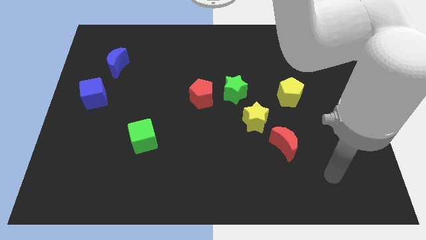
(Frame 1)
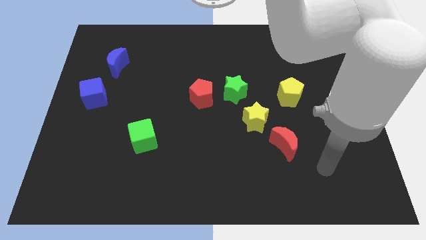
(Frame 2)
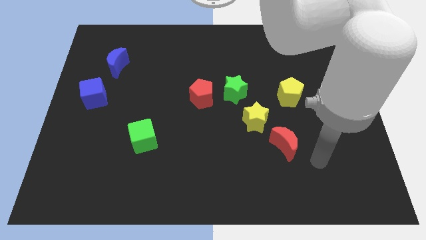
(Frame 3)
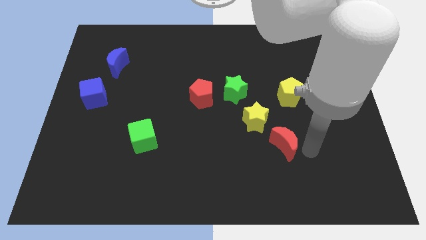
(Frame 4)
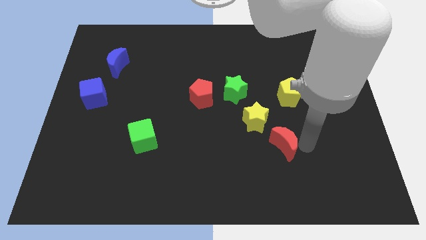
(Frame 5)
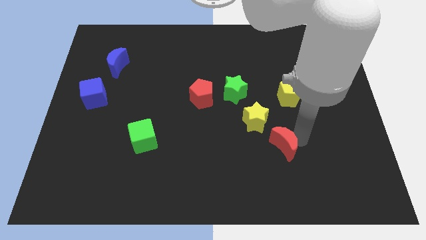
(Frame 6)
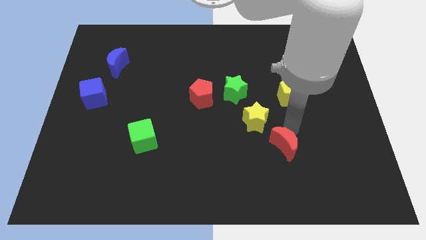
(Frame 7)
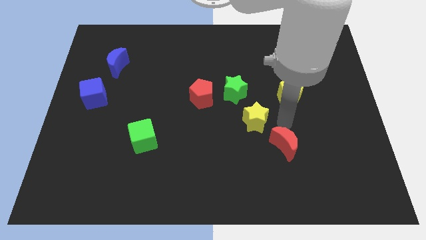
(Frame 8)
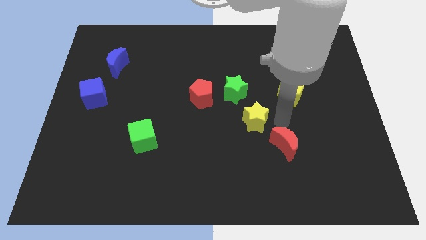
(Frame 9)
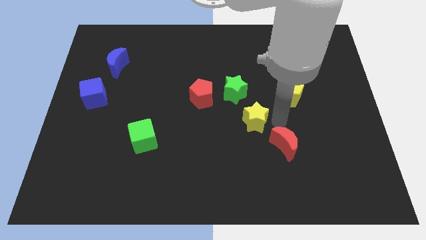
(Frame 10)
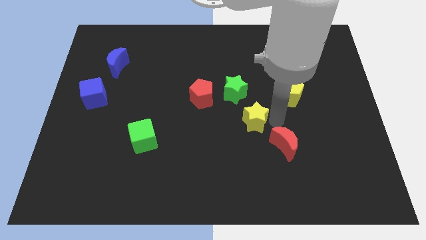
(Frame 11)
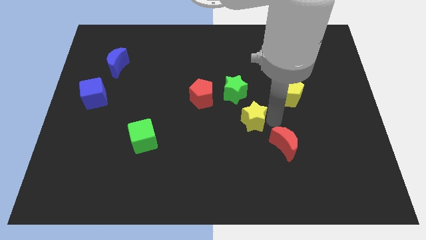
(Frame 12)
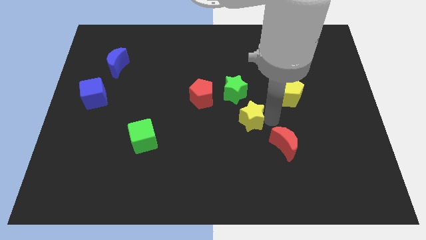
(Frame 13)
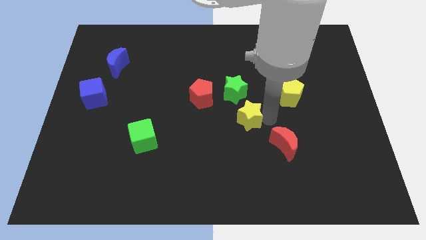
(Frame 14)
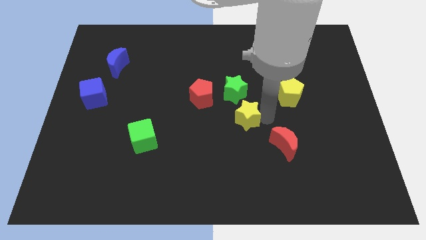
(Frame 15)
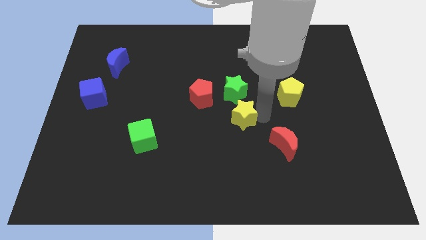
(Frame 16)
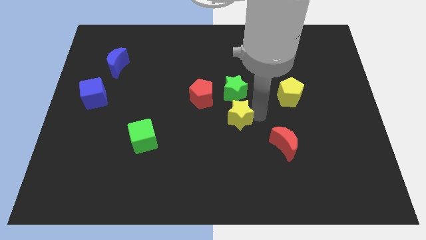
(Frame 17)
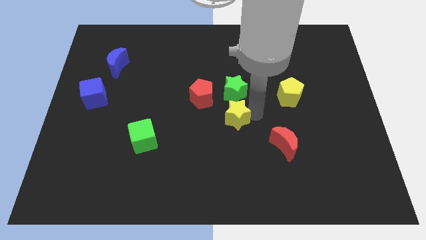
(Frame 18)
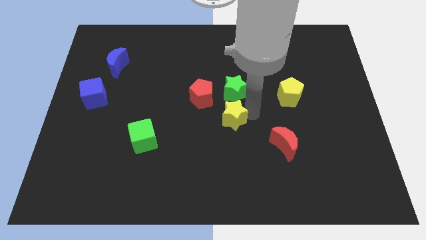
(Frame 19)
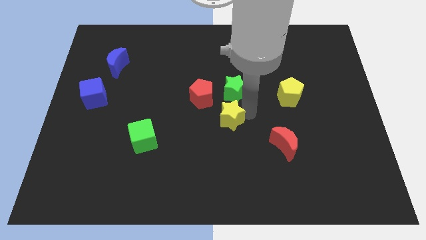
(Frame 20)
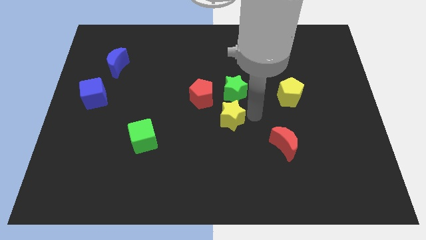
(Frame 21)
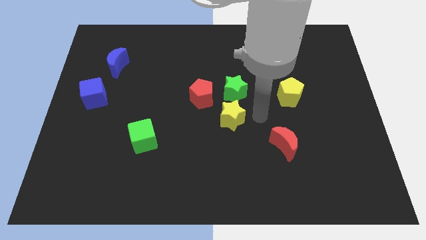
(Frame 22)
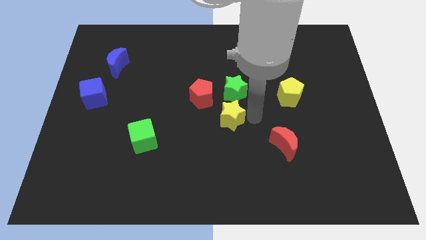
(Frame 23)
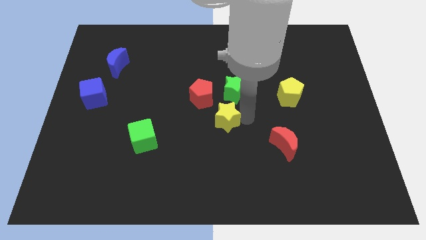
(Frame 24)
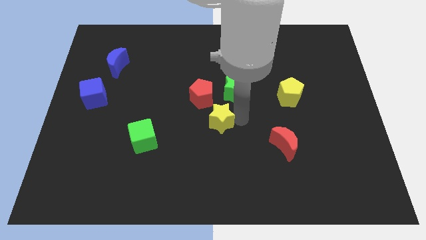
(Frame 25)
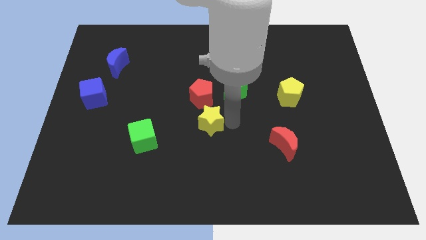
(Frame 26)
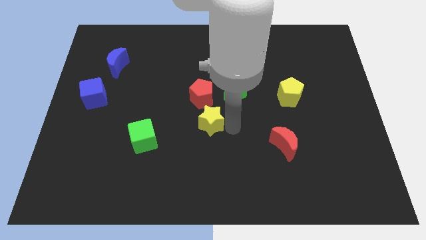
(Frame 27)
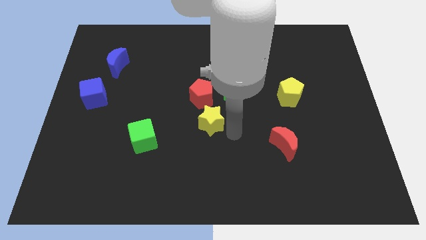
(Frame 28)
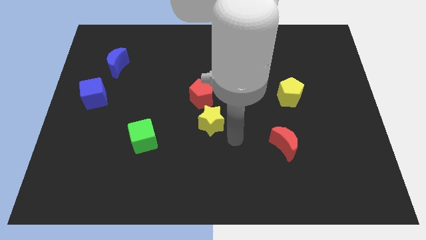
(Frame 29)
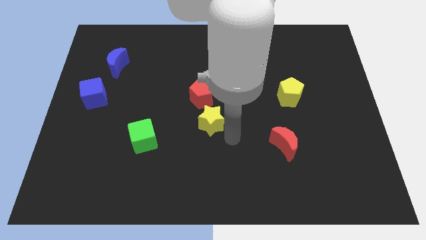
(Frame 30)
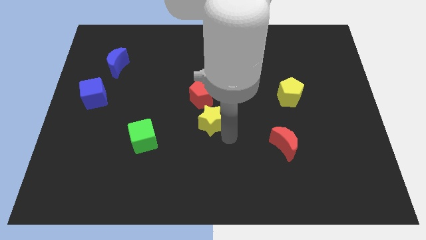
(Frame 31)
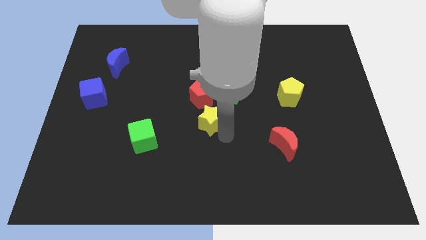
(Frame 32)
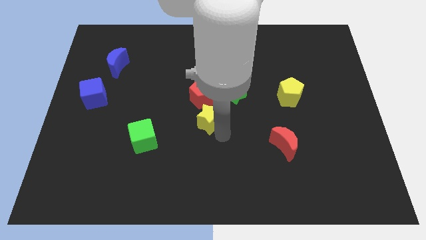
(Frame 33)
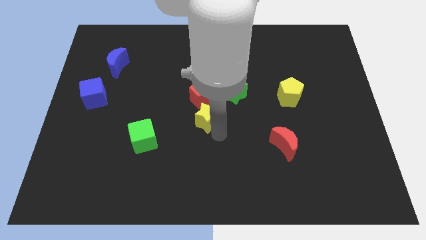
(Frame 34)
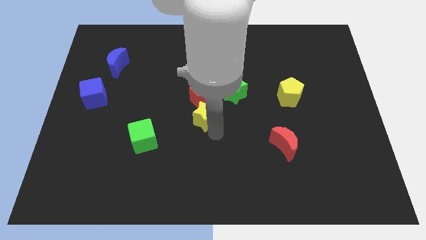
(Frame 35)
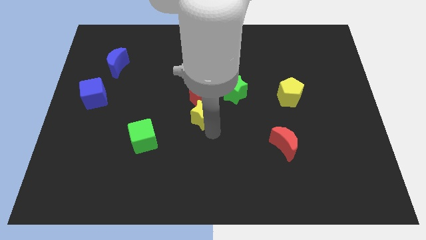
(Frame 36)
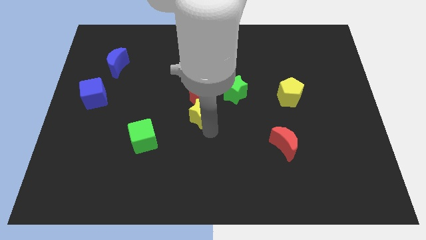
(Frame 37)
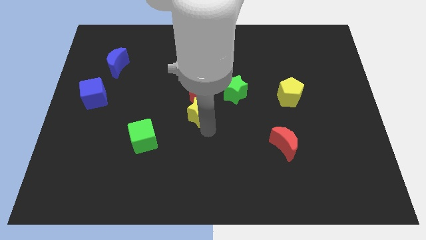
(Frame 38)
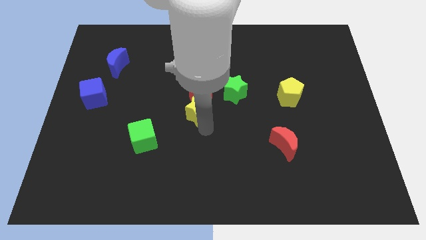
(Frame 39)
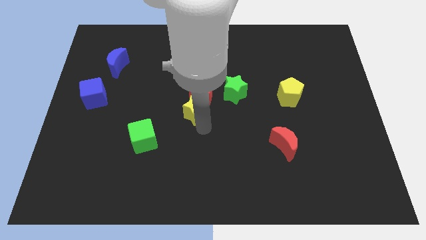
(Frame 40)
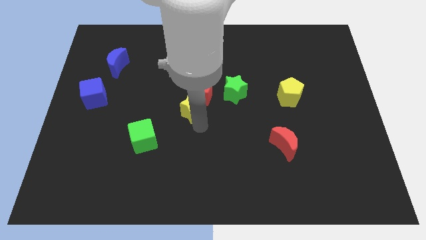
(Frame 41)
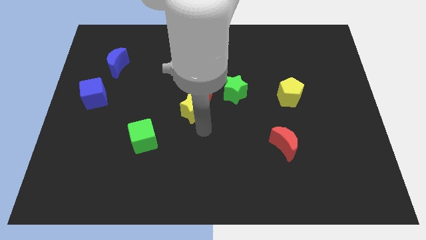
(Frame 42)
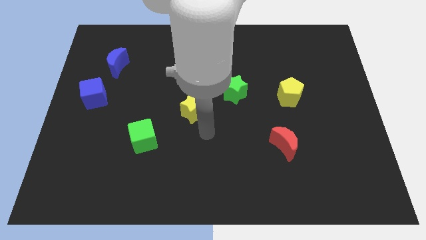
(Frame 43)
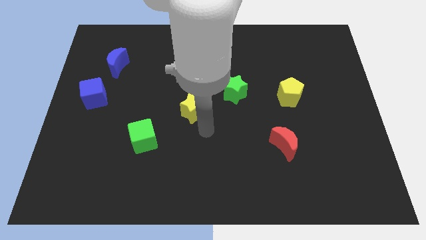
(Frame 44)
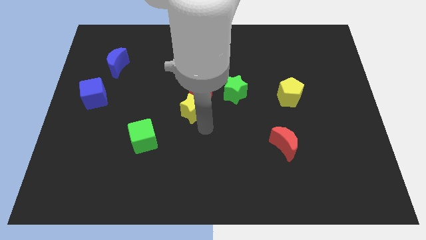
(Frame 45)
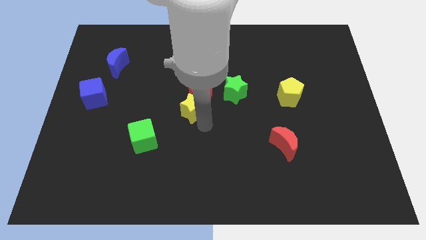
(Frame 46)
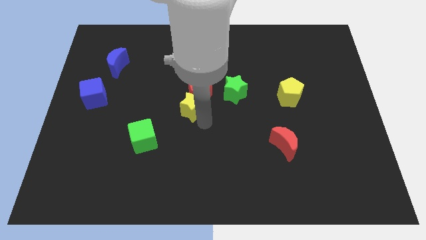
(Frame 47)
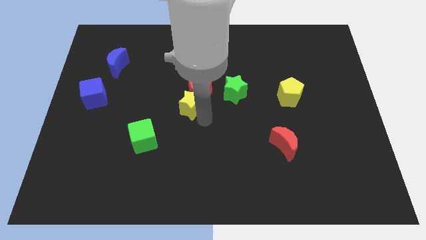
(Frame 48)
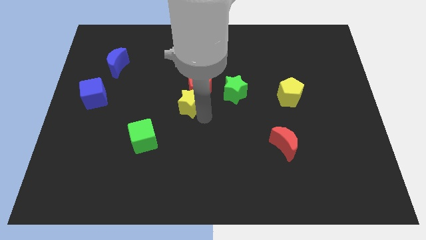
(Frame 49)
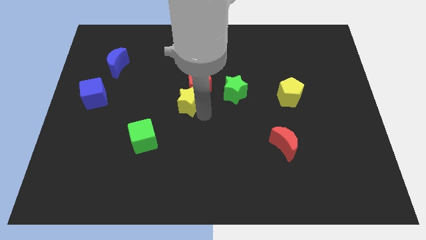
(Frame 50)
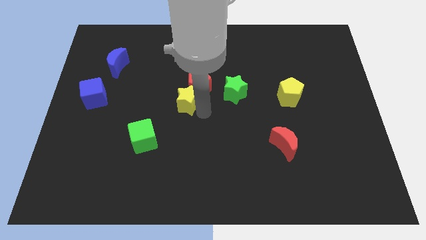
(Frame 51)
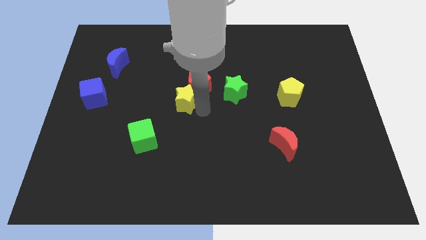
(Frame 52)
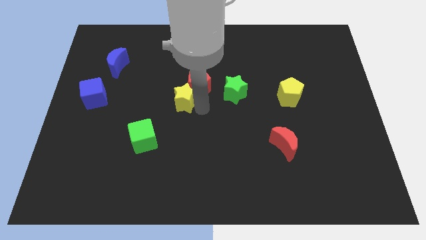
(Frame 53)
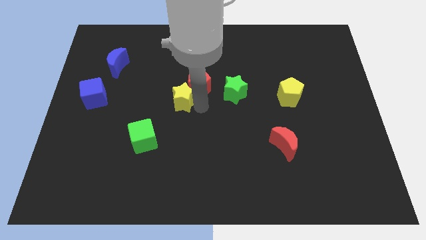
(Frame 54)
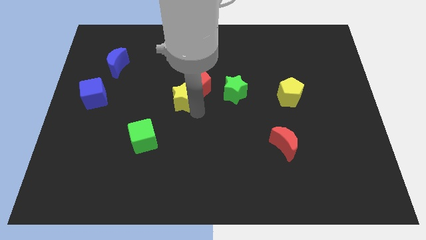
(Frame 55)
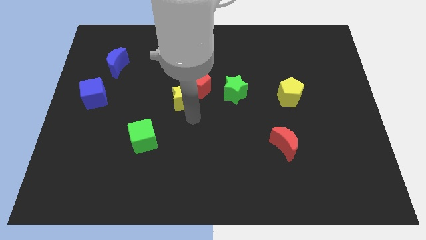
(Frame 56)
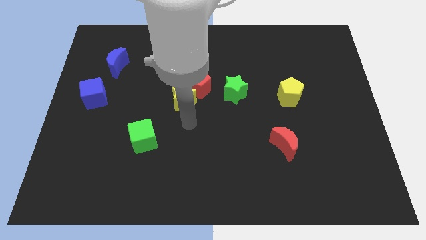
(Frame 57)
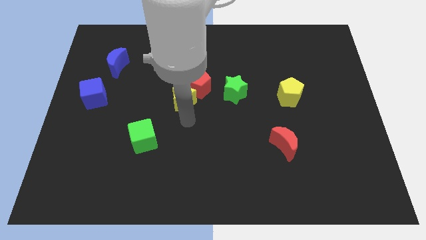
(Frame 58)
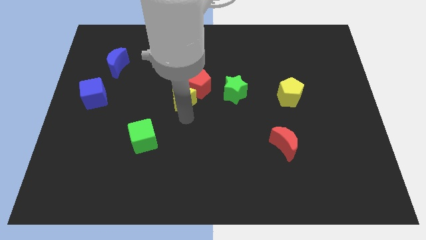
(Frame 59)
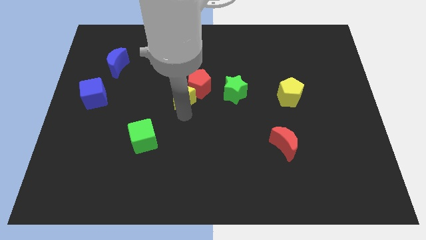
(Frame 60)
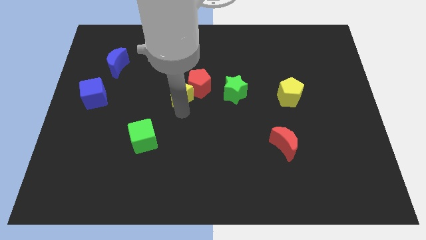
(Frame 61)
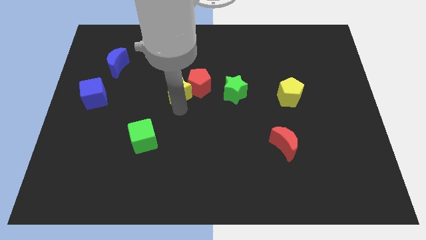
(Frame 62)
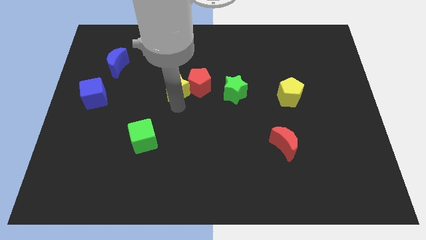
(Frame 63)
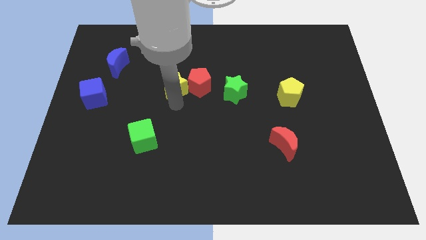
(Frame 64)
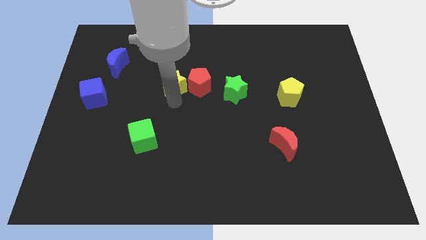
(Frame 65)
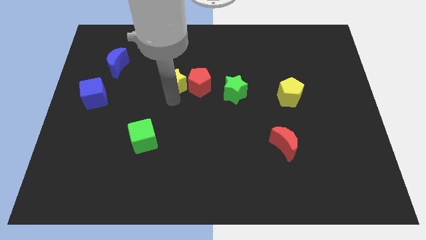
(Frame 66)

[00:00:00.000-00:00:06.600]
push the yellow star to the top left of the red pentagon

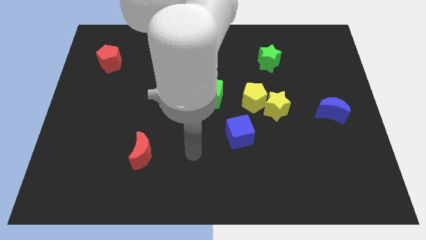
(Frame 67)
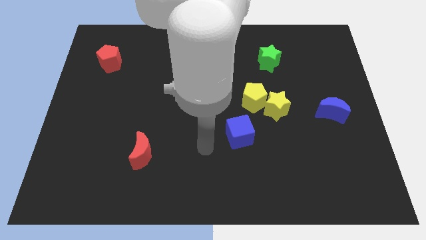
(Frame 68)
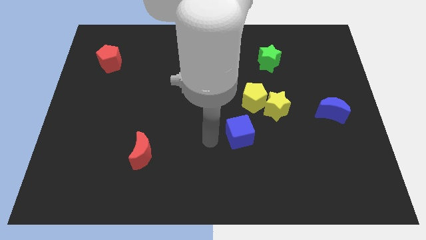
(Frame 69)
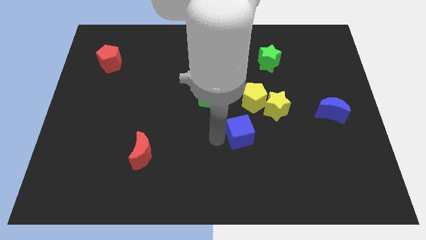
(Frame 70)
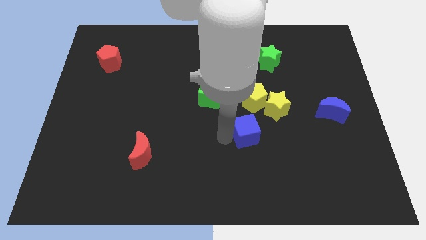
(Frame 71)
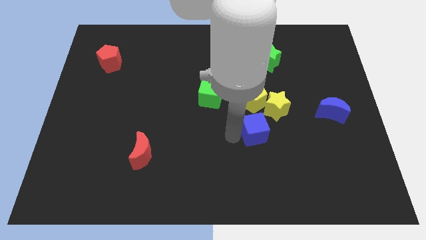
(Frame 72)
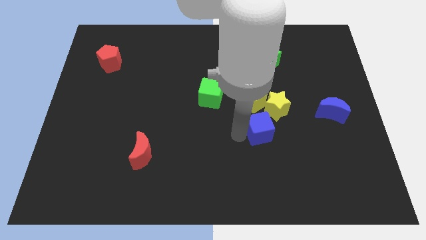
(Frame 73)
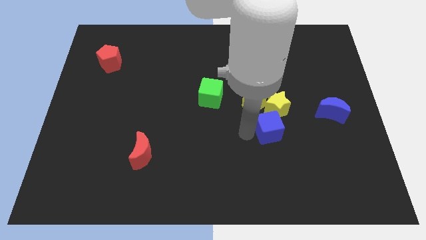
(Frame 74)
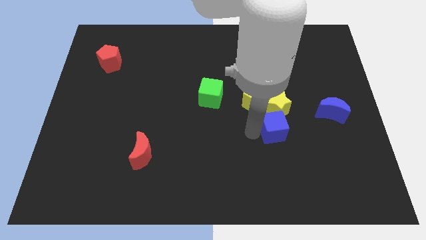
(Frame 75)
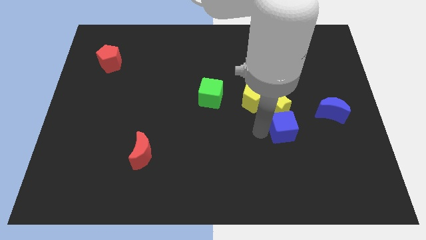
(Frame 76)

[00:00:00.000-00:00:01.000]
slide the blue cube to the bottom right of the yellow star
